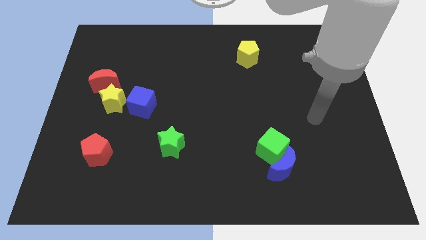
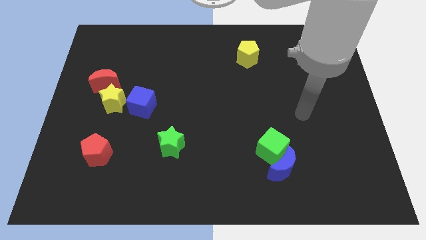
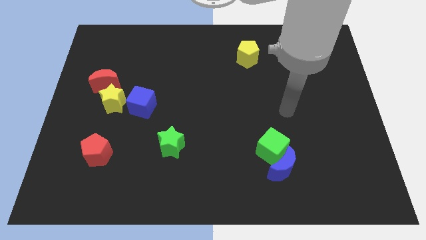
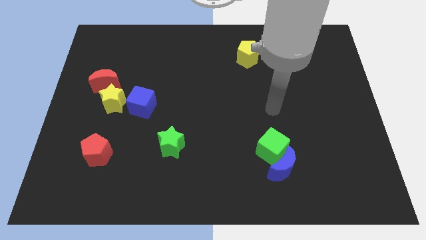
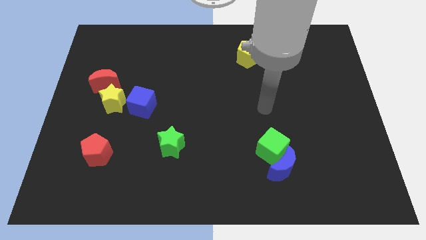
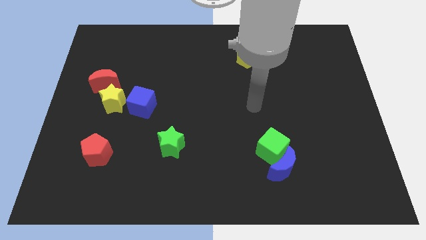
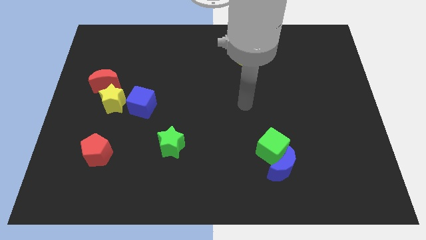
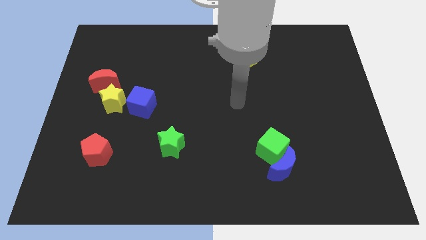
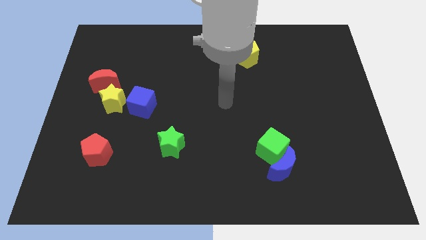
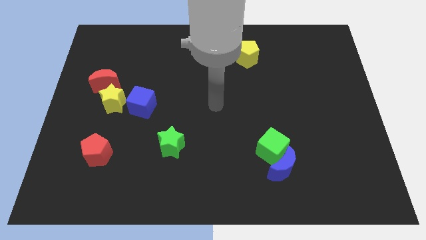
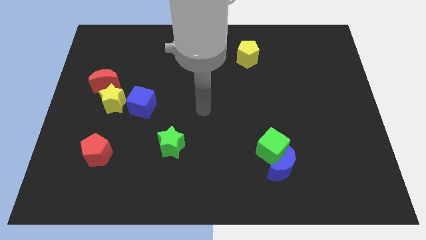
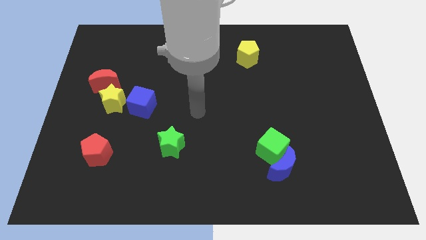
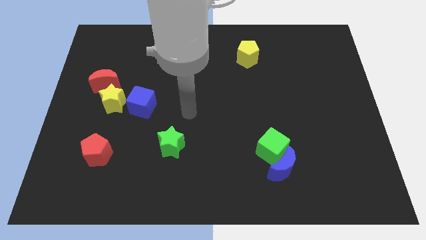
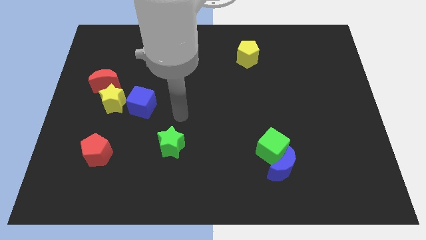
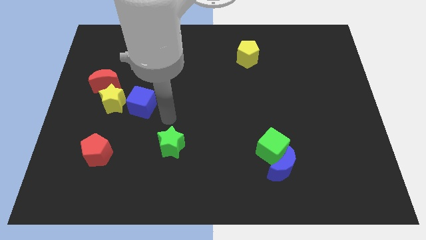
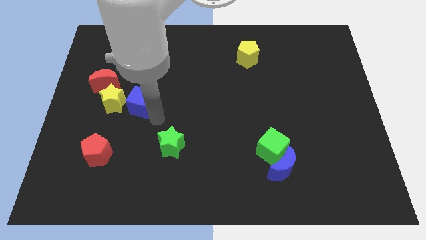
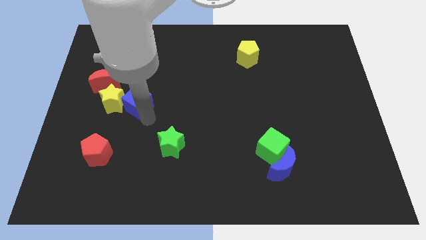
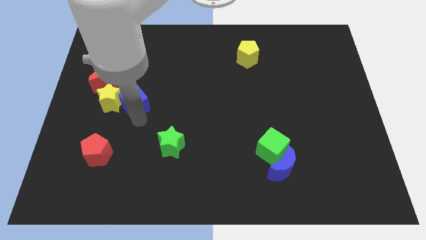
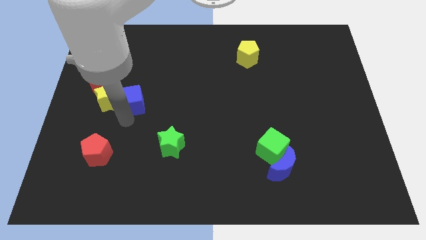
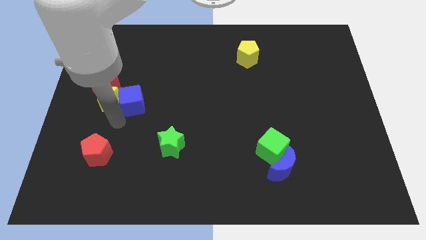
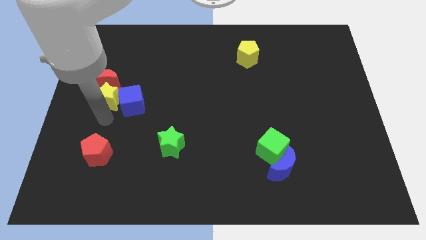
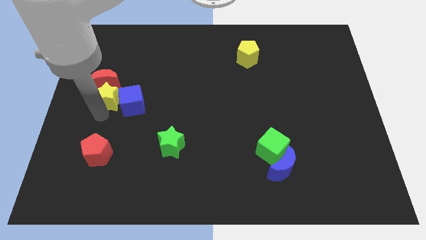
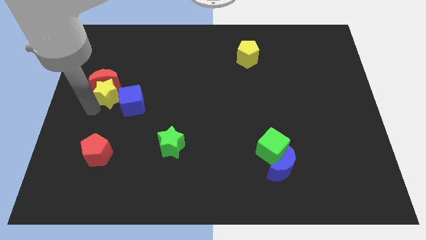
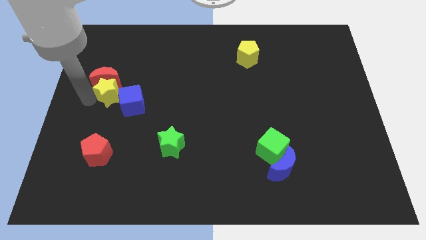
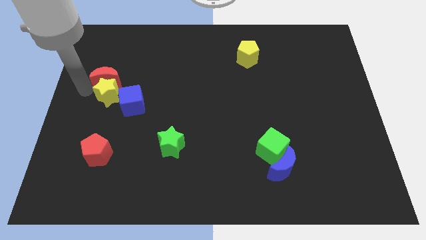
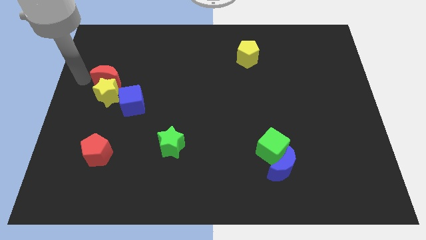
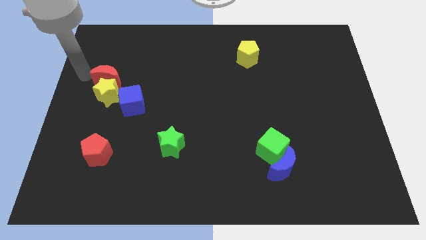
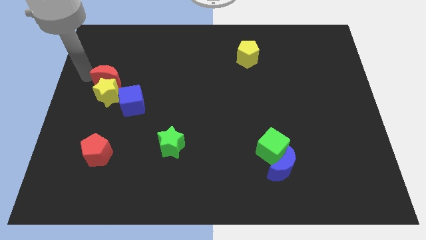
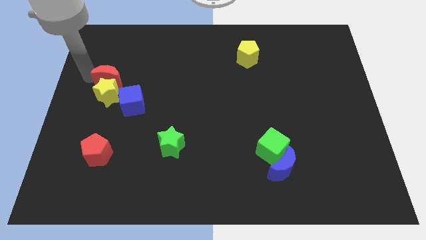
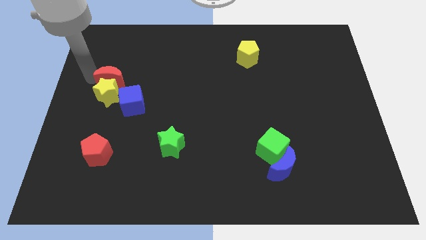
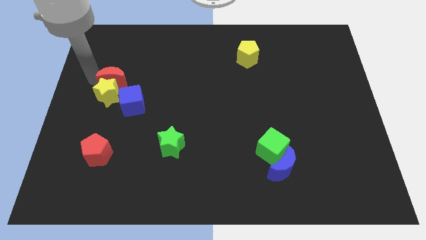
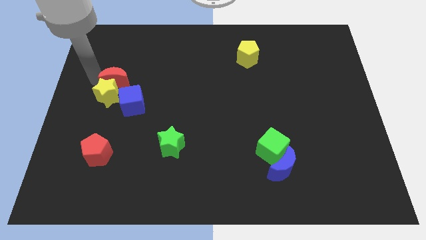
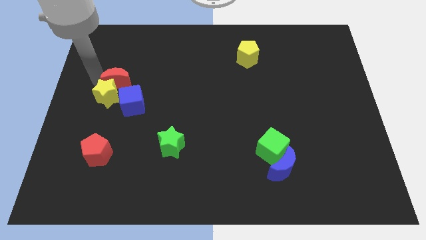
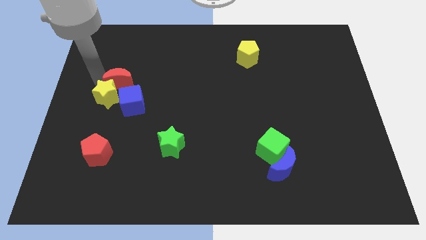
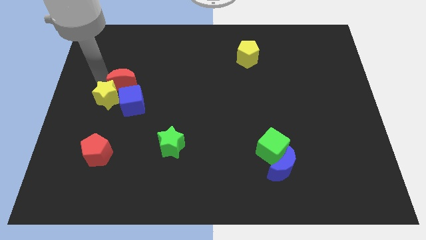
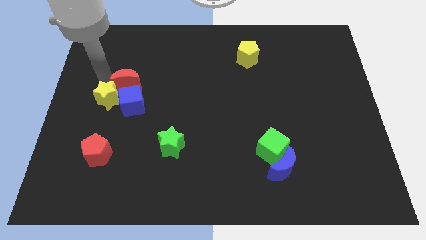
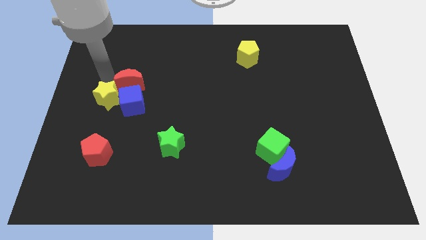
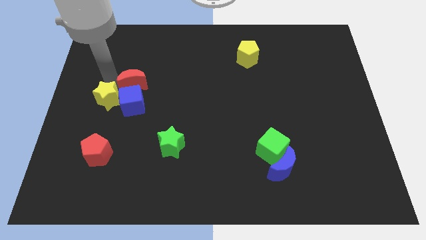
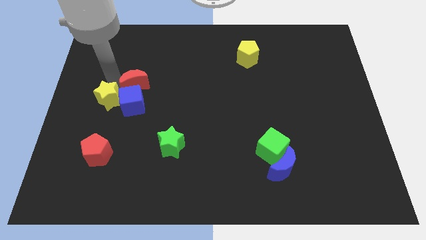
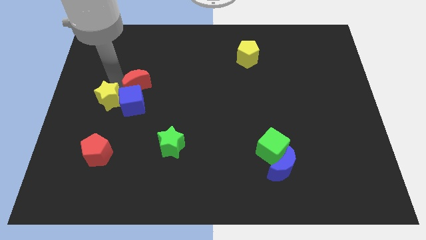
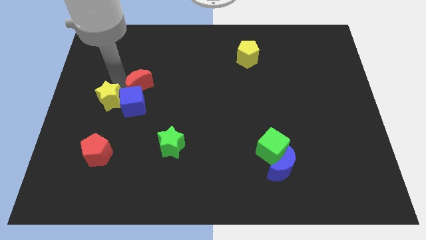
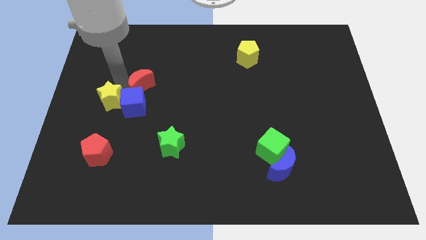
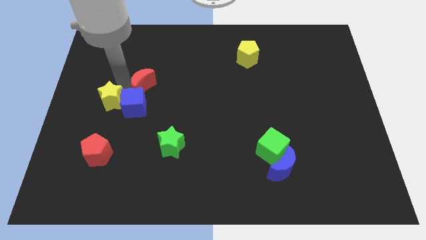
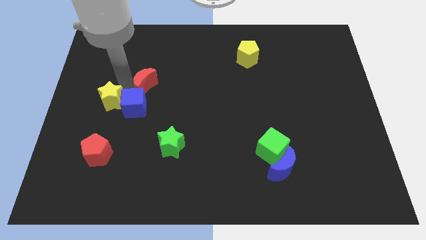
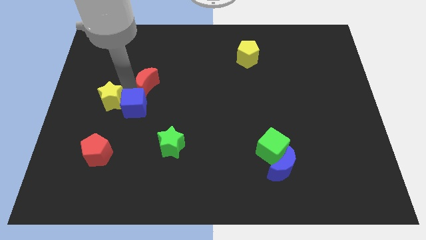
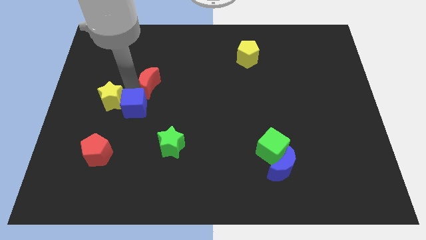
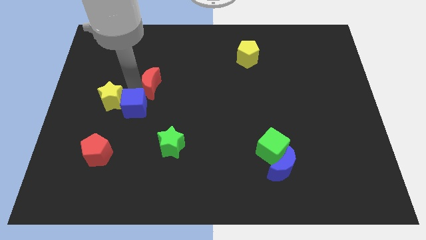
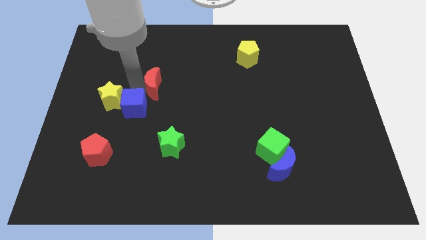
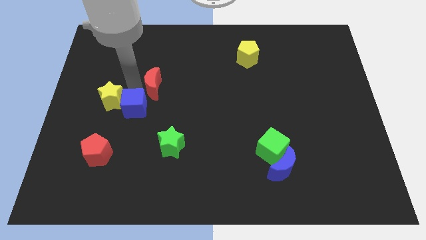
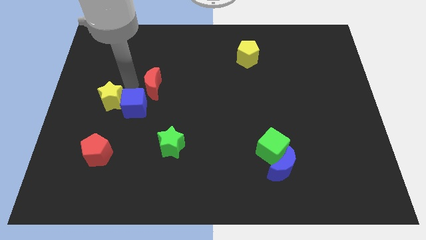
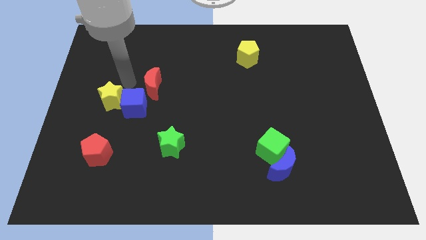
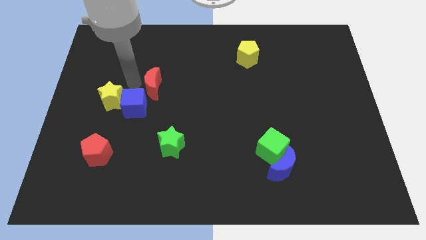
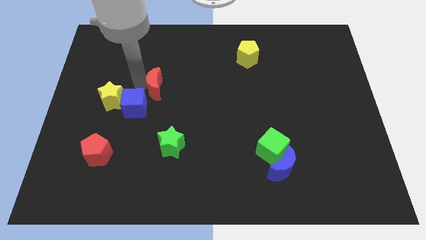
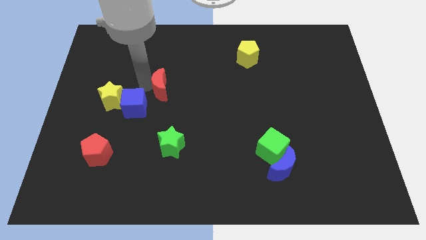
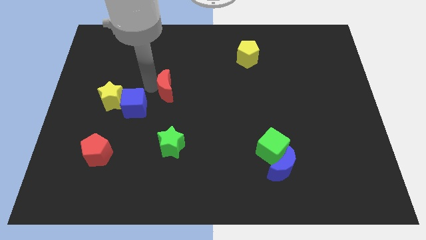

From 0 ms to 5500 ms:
slide the red moon to the middle

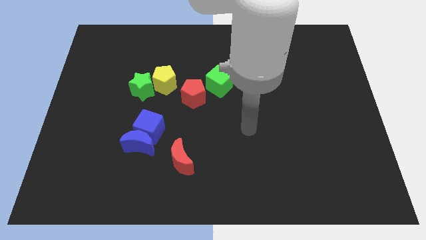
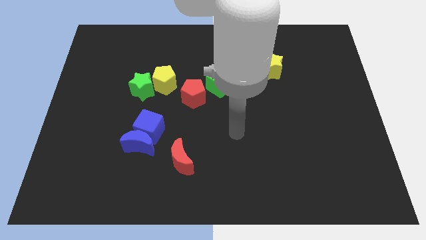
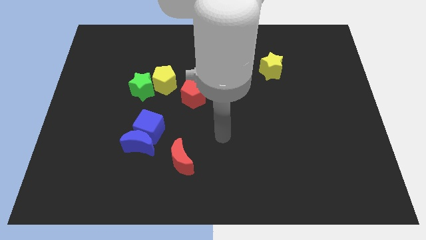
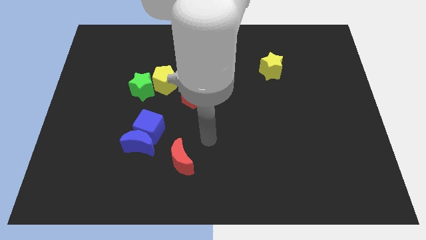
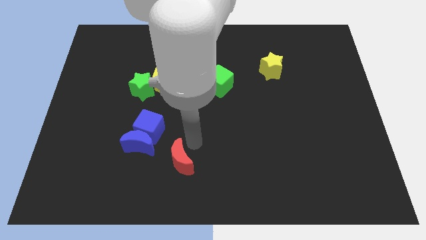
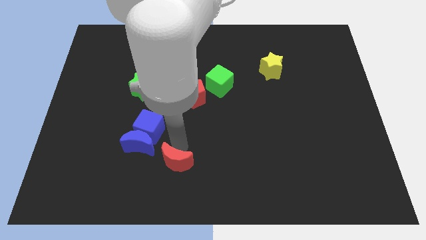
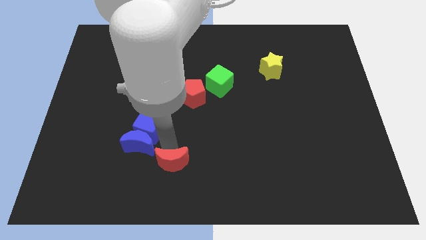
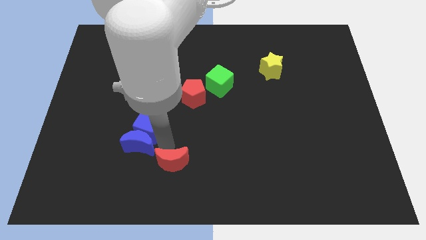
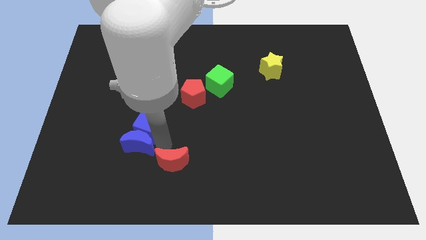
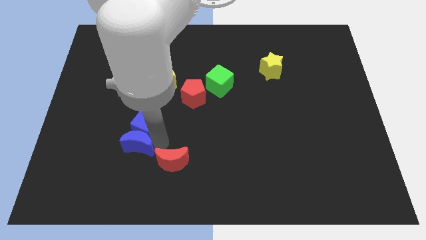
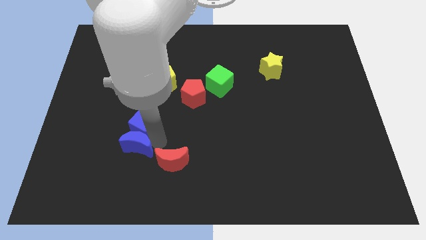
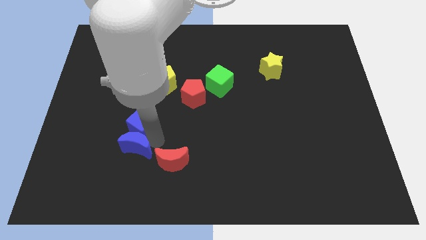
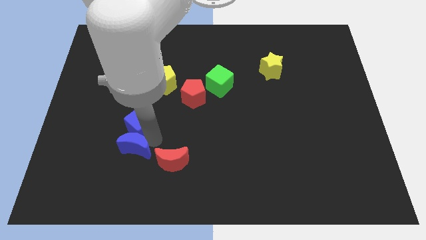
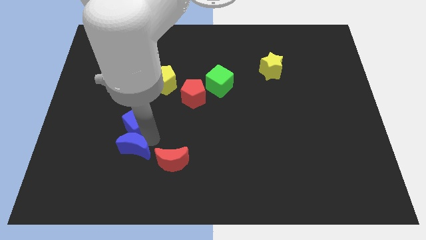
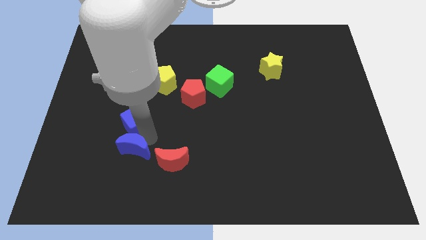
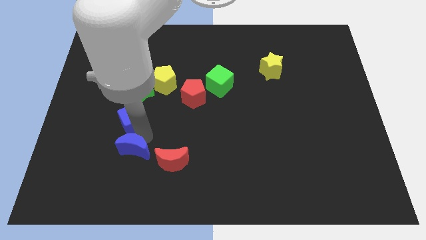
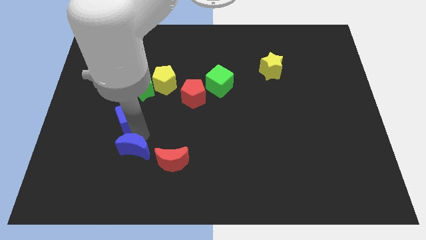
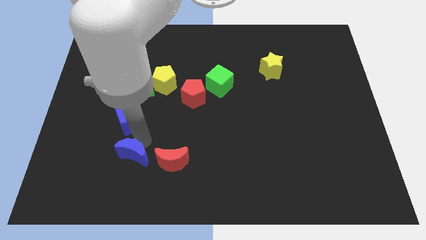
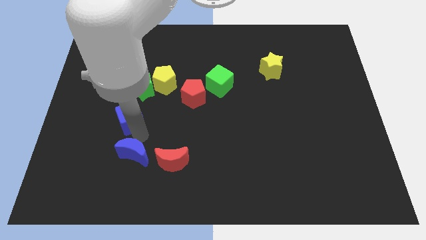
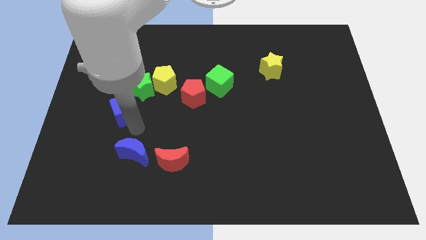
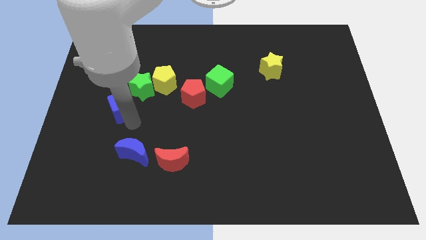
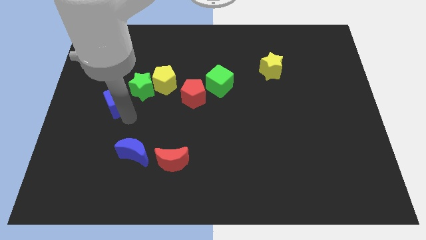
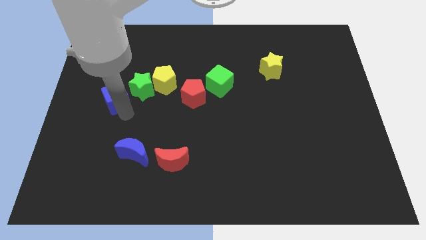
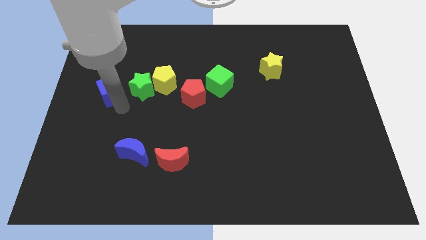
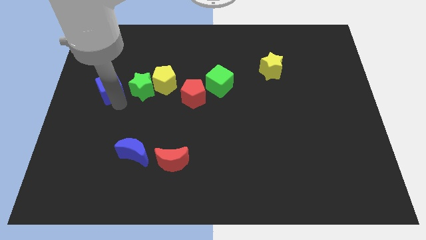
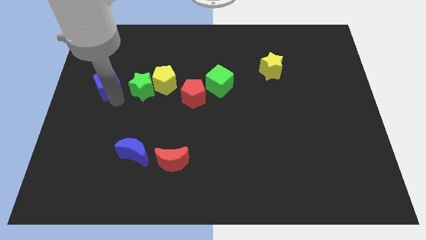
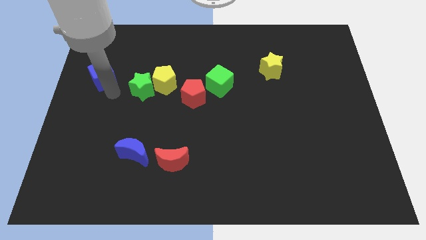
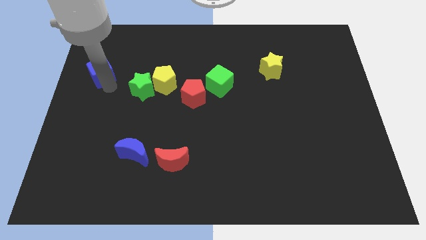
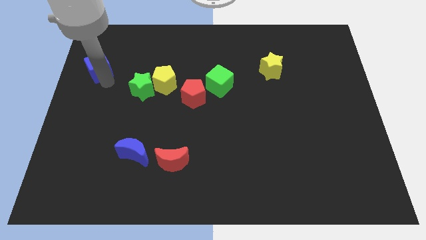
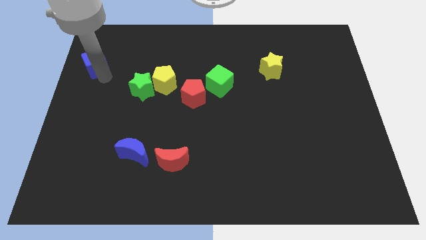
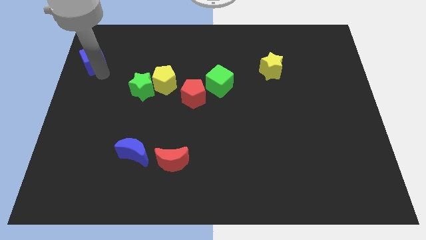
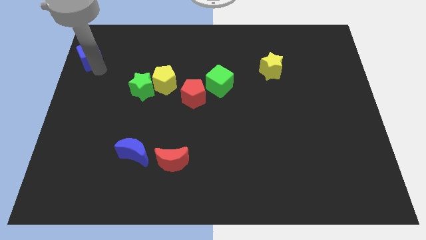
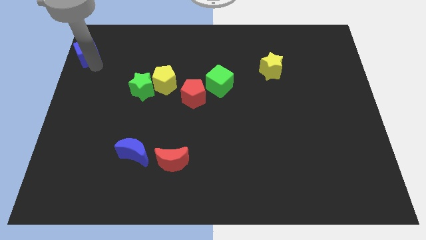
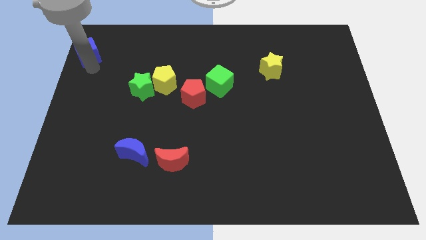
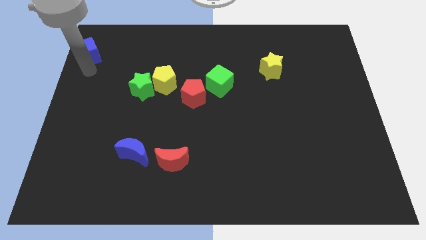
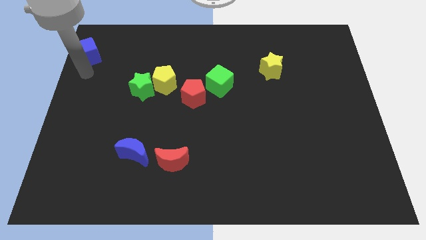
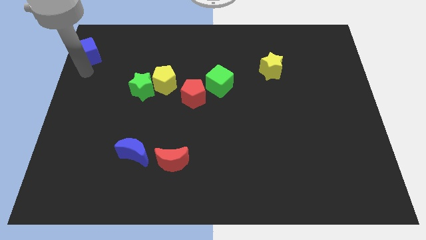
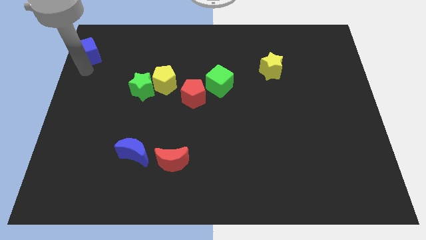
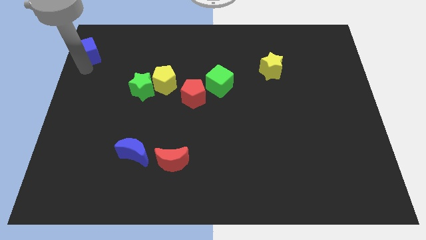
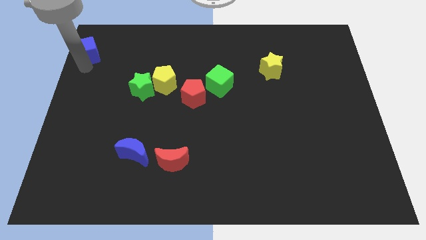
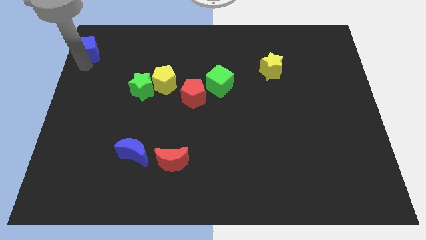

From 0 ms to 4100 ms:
push the blue cube to the top left of the board
